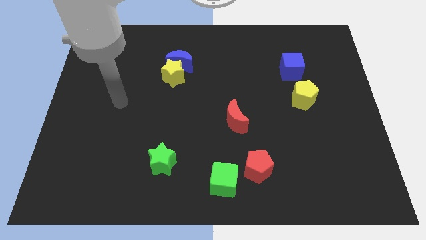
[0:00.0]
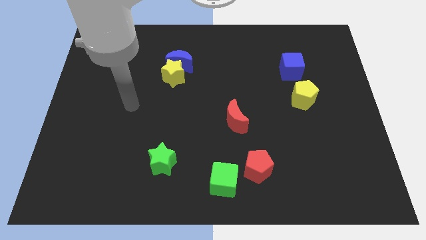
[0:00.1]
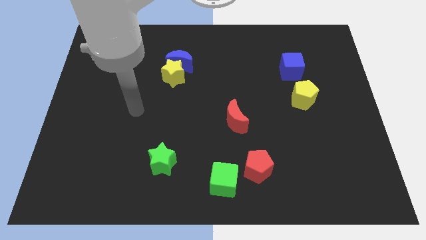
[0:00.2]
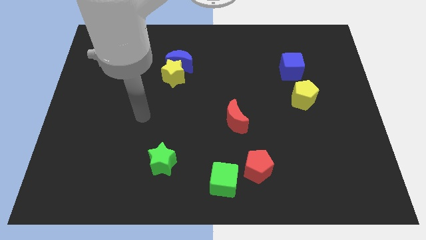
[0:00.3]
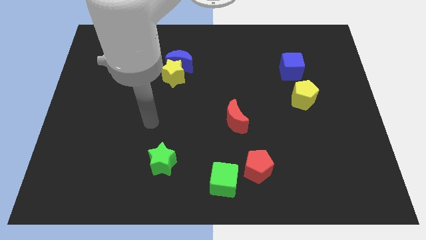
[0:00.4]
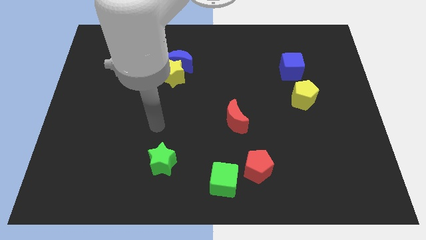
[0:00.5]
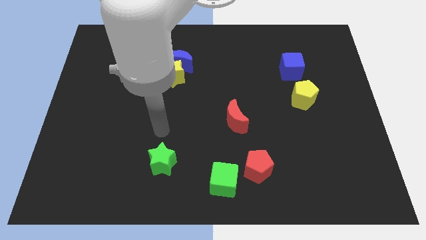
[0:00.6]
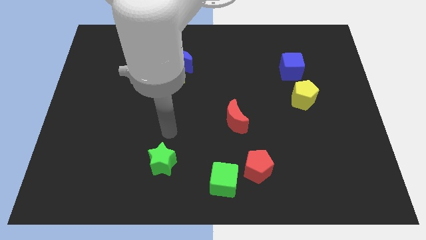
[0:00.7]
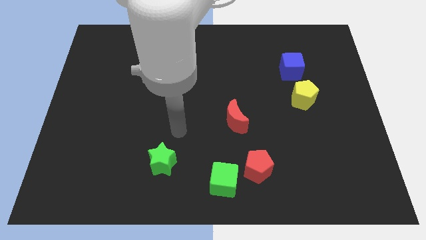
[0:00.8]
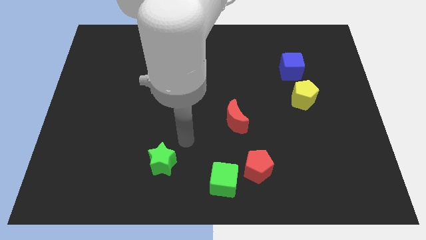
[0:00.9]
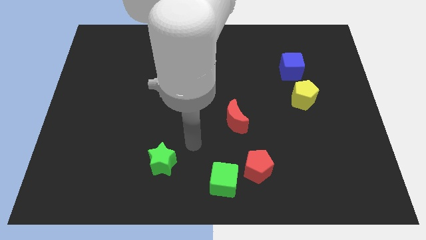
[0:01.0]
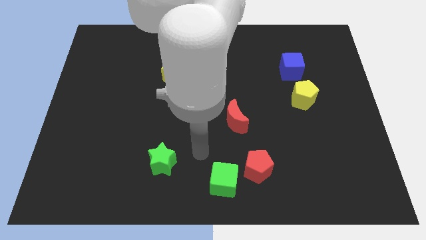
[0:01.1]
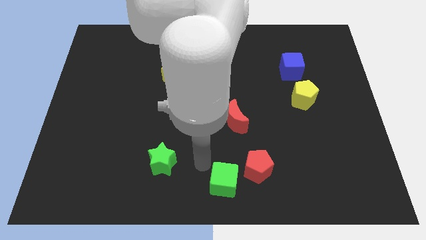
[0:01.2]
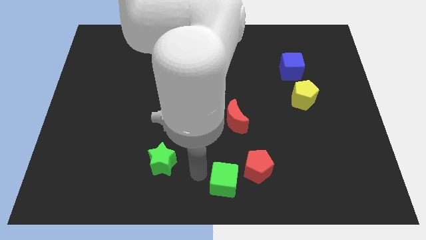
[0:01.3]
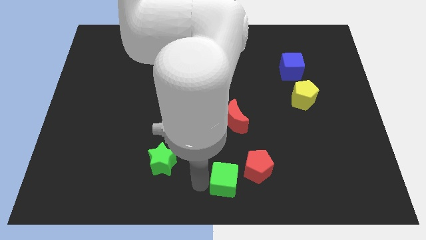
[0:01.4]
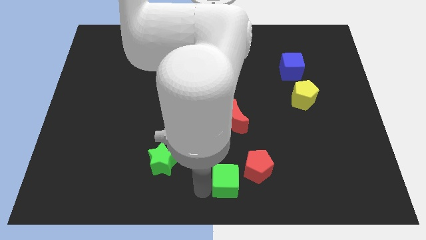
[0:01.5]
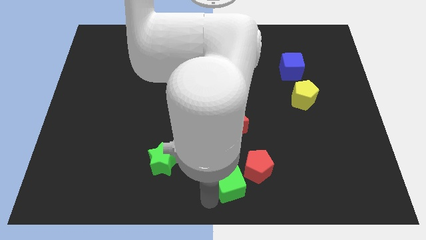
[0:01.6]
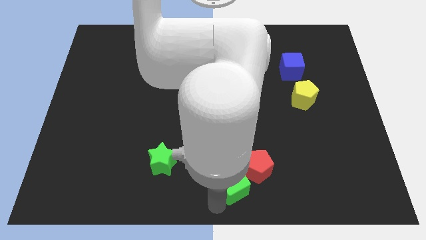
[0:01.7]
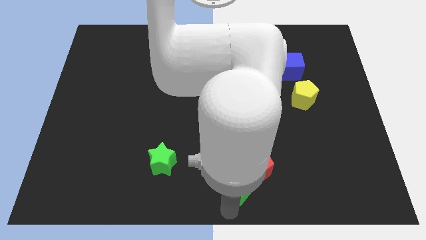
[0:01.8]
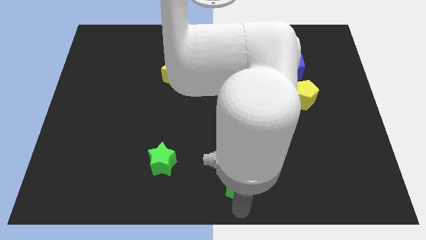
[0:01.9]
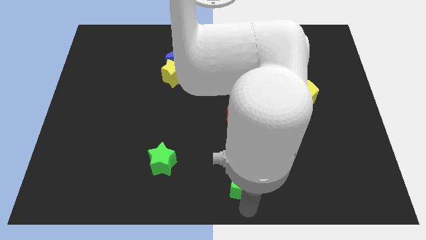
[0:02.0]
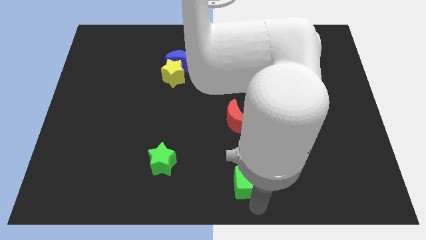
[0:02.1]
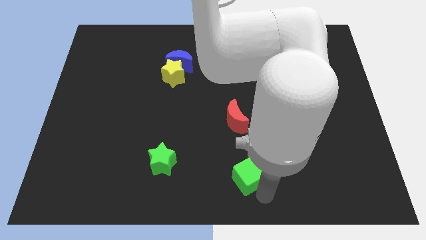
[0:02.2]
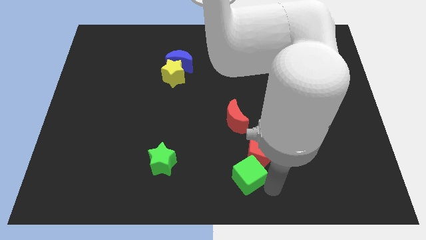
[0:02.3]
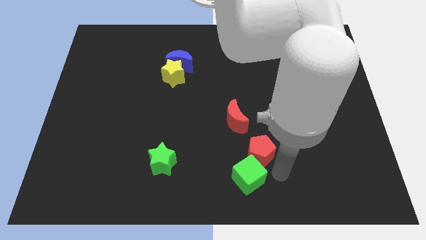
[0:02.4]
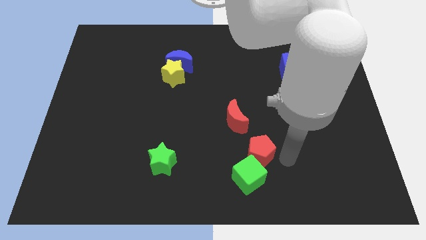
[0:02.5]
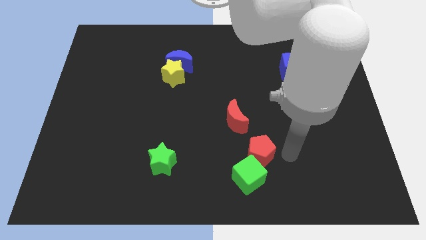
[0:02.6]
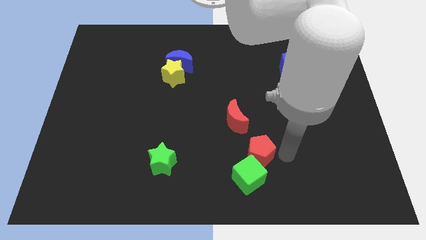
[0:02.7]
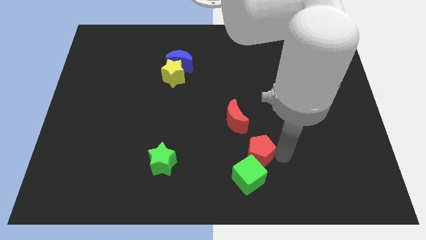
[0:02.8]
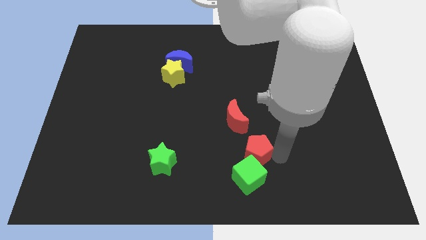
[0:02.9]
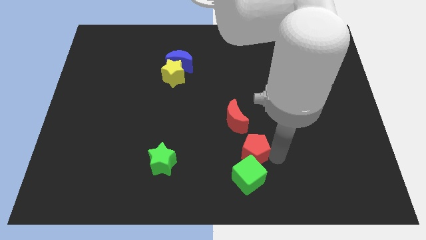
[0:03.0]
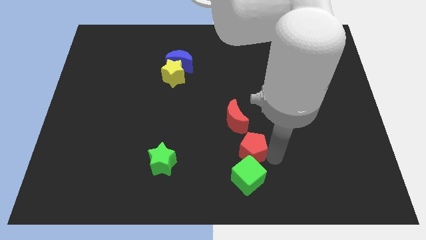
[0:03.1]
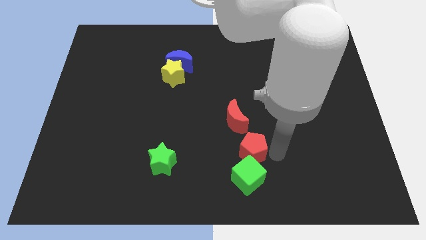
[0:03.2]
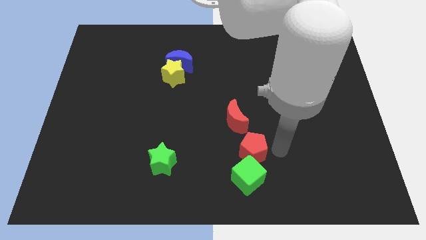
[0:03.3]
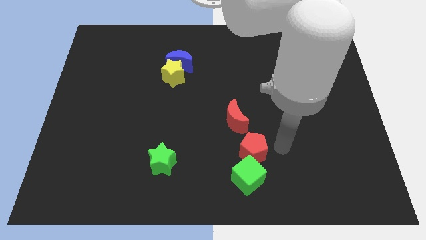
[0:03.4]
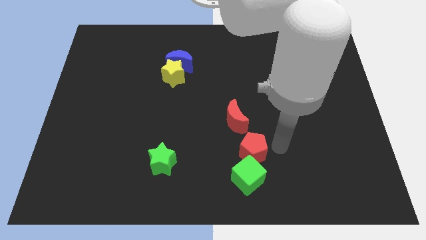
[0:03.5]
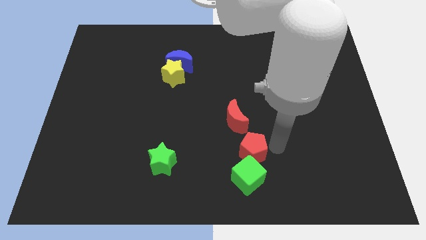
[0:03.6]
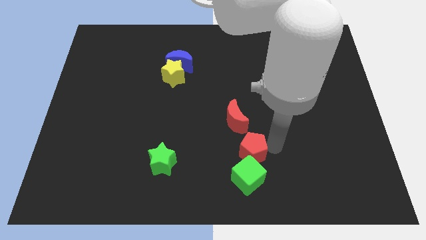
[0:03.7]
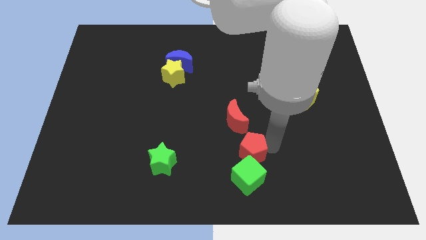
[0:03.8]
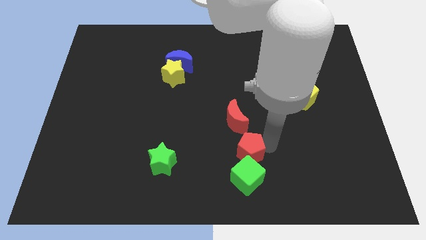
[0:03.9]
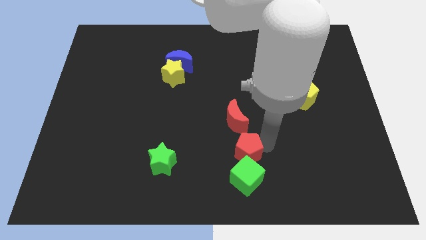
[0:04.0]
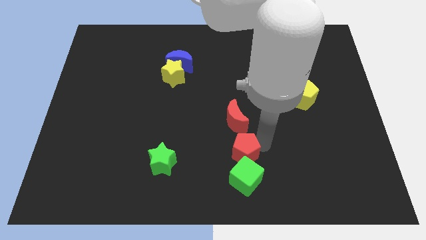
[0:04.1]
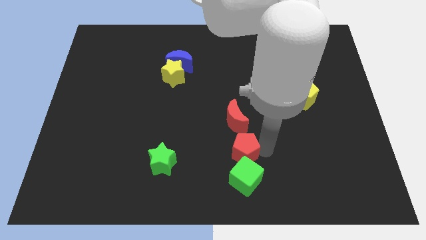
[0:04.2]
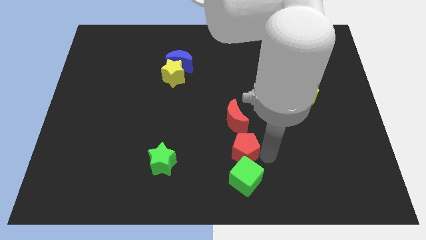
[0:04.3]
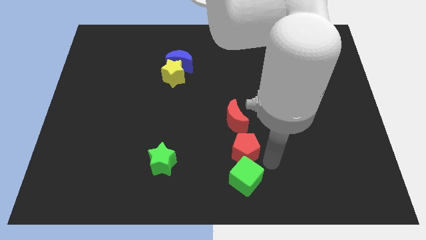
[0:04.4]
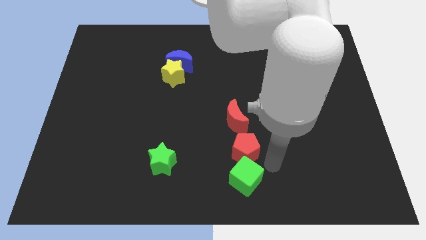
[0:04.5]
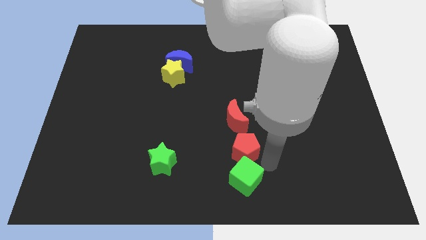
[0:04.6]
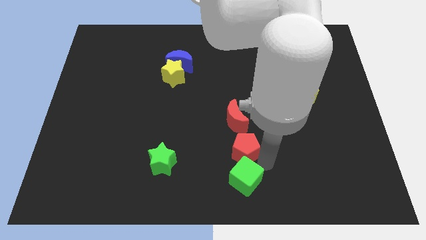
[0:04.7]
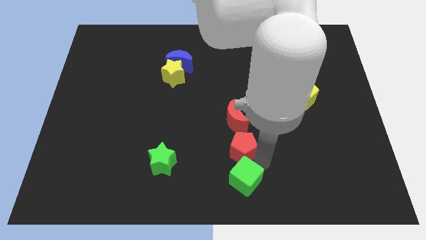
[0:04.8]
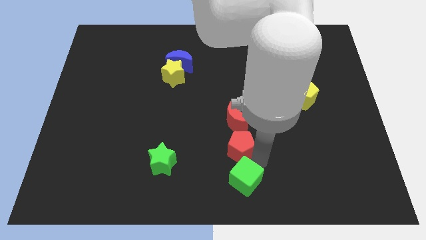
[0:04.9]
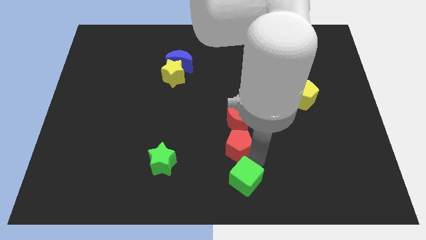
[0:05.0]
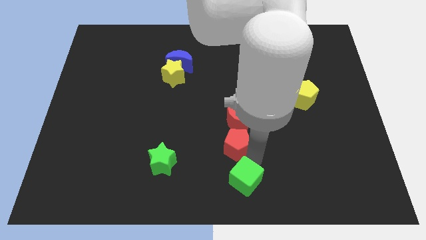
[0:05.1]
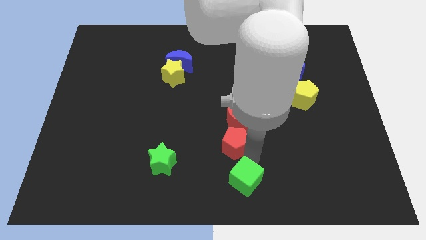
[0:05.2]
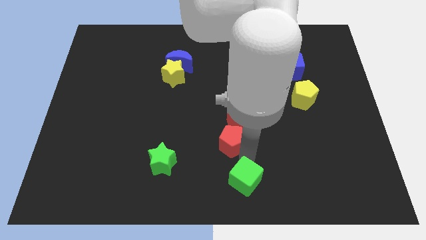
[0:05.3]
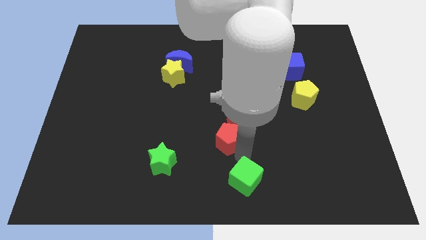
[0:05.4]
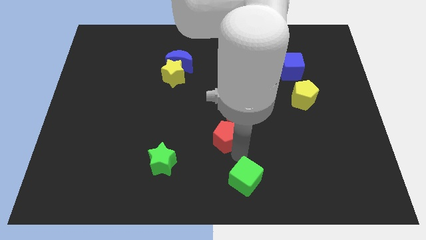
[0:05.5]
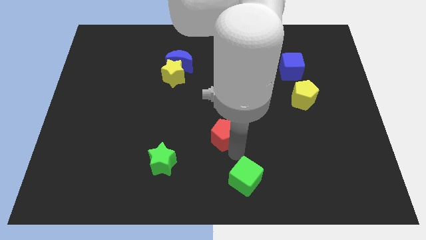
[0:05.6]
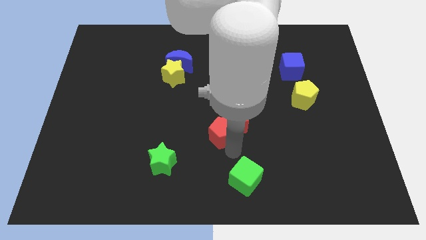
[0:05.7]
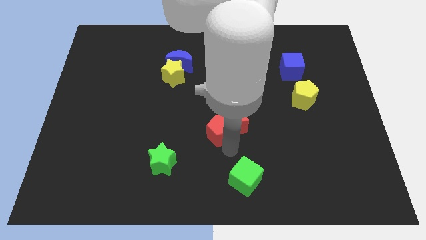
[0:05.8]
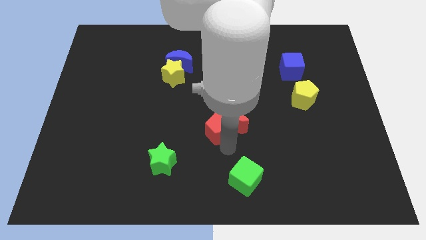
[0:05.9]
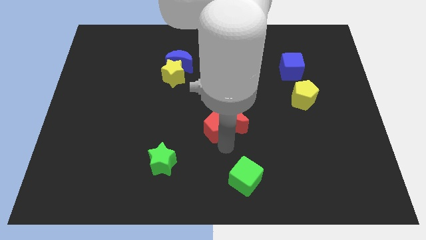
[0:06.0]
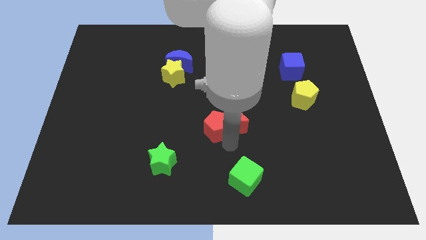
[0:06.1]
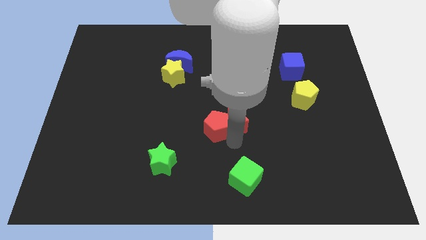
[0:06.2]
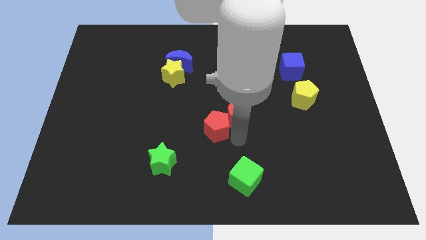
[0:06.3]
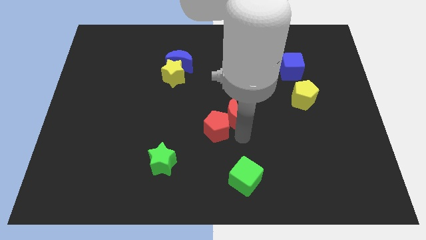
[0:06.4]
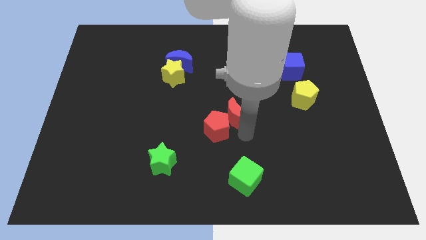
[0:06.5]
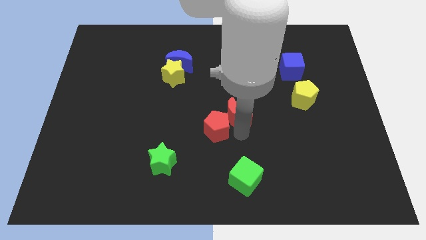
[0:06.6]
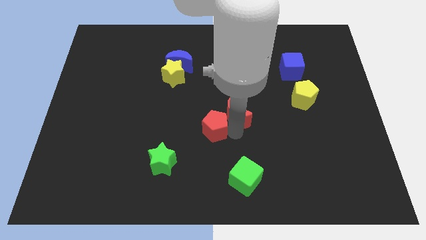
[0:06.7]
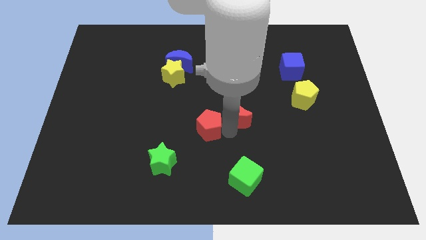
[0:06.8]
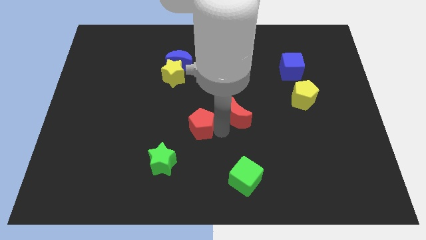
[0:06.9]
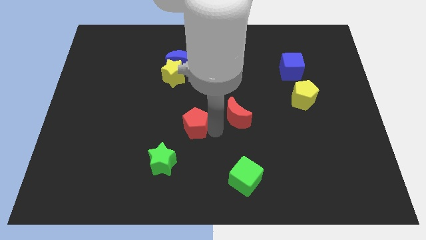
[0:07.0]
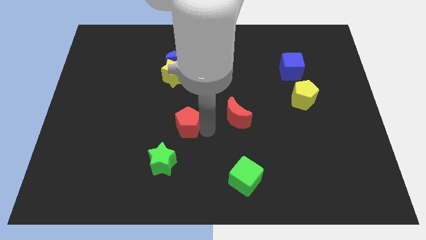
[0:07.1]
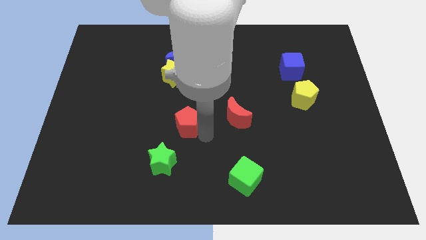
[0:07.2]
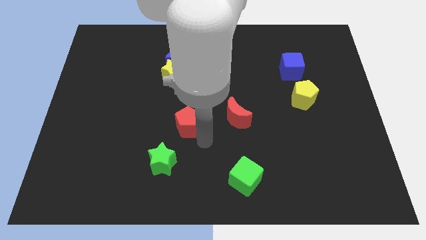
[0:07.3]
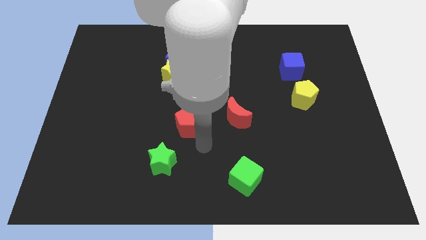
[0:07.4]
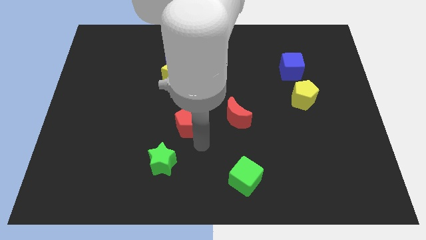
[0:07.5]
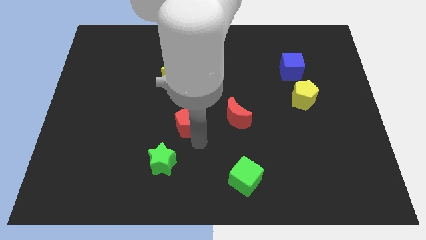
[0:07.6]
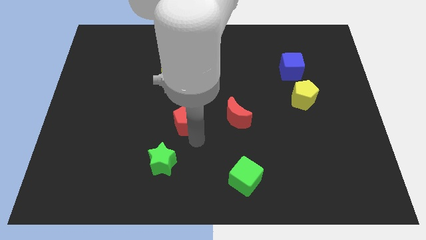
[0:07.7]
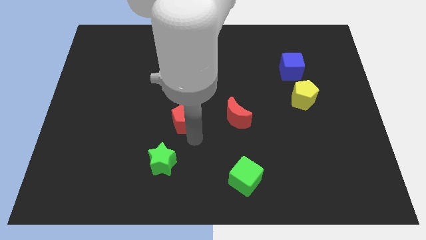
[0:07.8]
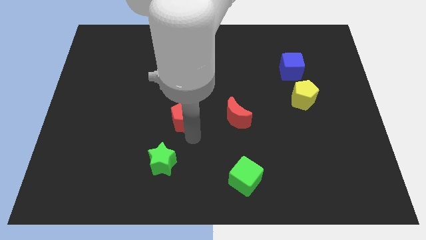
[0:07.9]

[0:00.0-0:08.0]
push the red pentagon upwards and then to the left

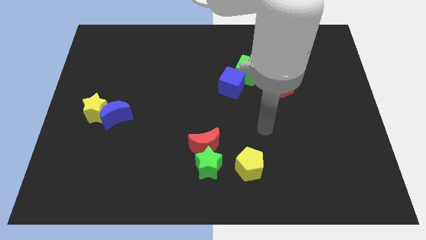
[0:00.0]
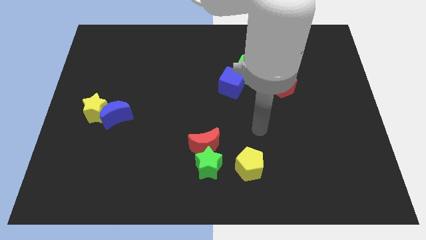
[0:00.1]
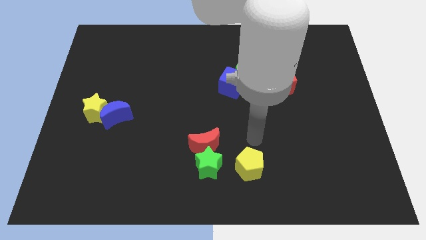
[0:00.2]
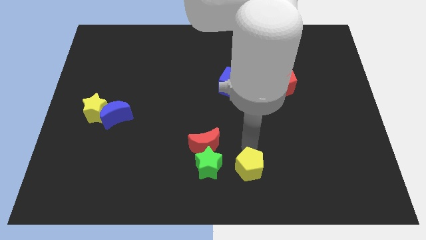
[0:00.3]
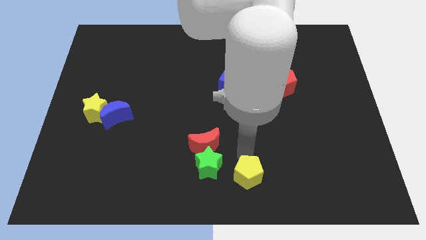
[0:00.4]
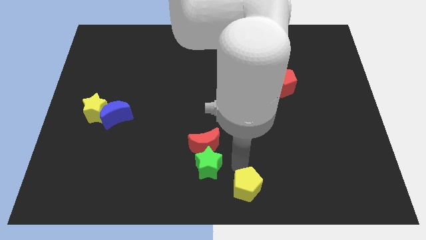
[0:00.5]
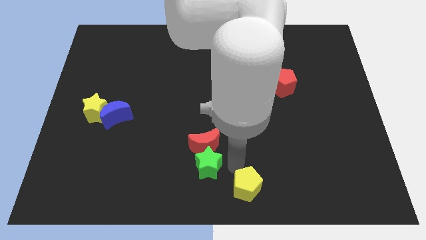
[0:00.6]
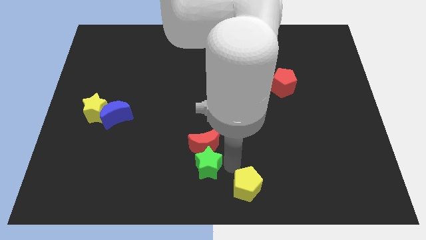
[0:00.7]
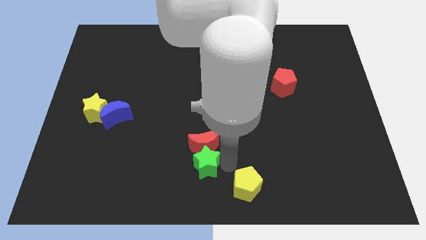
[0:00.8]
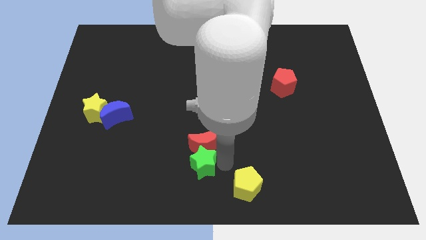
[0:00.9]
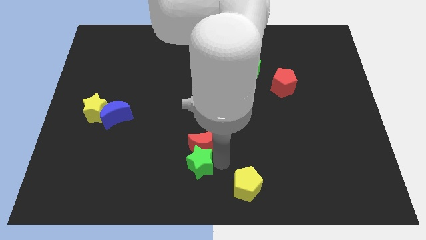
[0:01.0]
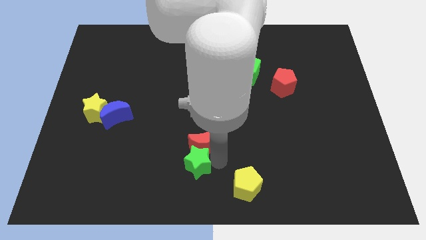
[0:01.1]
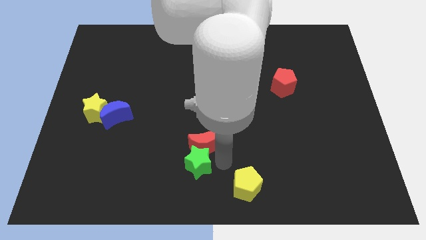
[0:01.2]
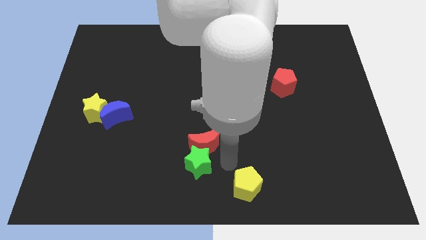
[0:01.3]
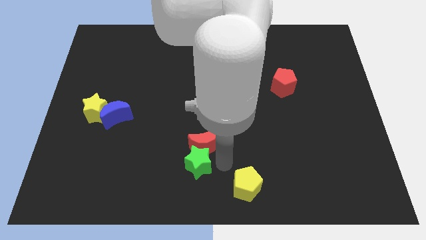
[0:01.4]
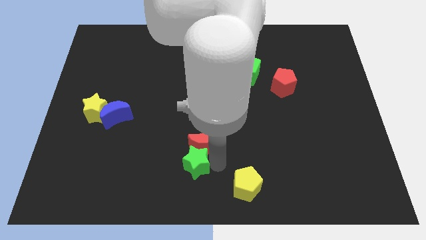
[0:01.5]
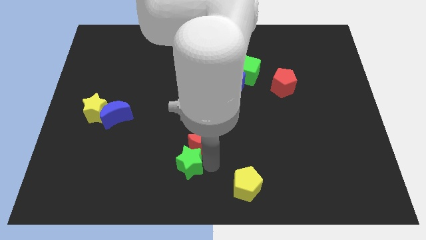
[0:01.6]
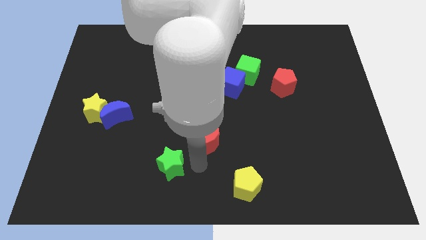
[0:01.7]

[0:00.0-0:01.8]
slide the green star left a bit
